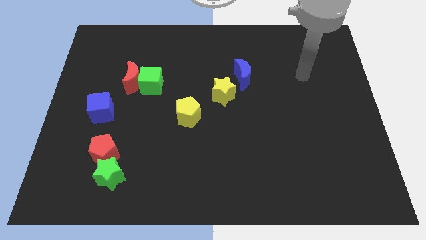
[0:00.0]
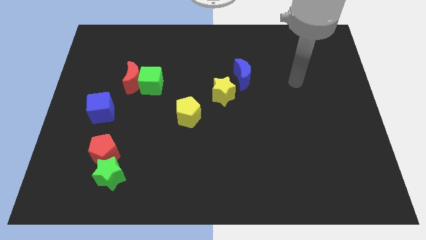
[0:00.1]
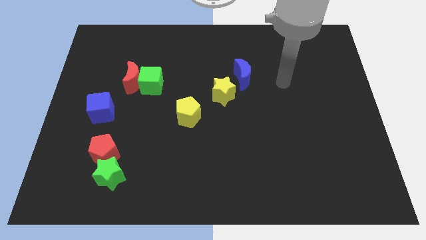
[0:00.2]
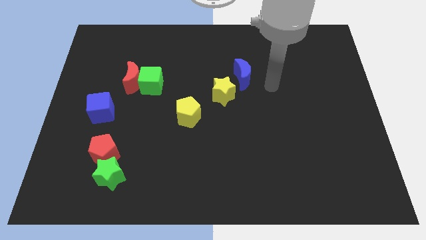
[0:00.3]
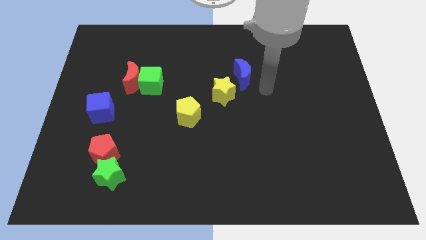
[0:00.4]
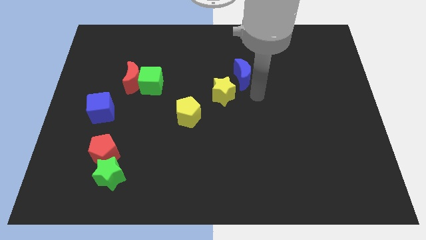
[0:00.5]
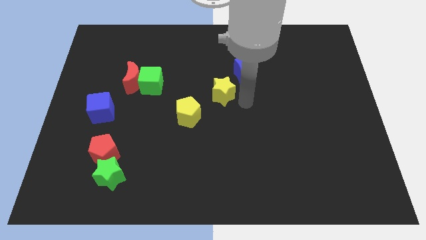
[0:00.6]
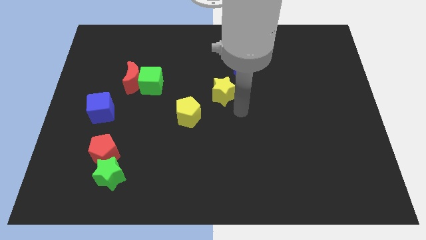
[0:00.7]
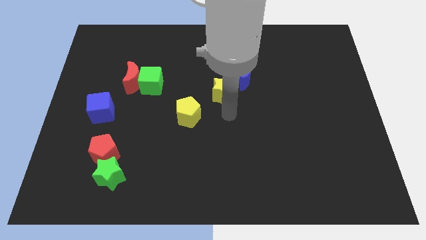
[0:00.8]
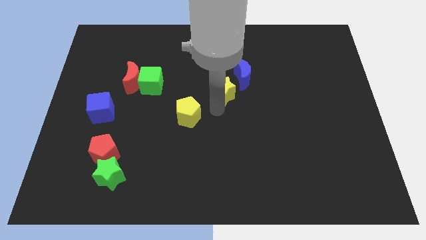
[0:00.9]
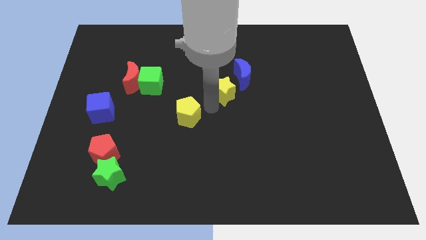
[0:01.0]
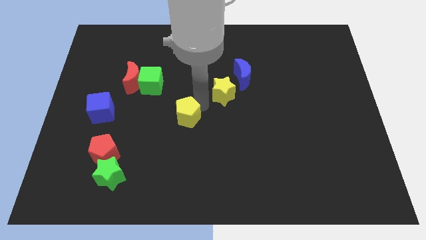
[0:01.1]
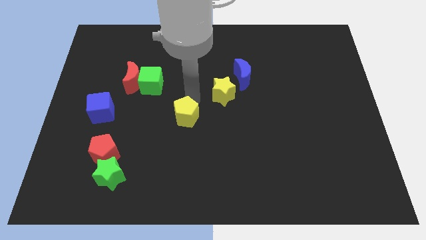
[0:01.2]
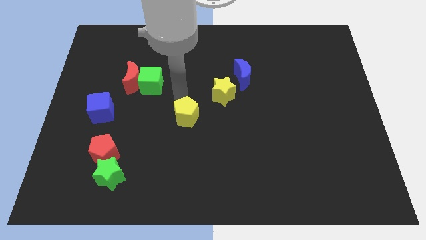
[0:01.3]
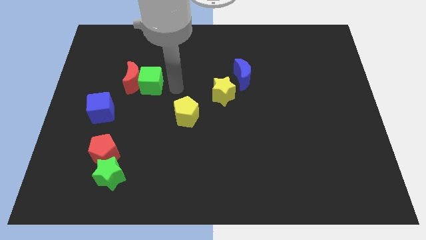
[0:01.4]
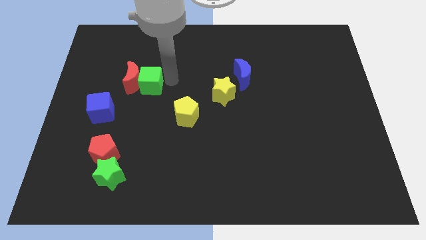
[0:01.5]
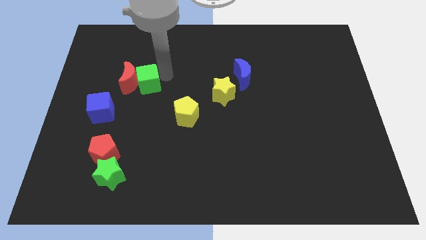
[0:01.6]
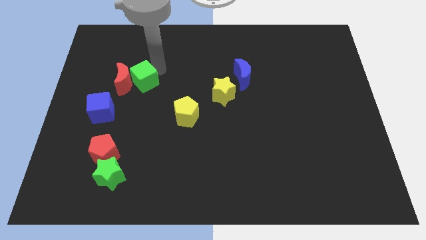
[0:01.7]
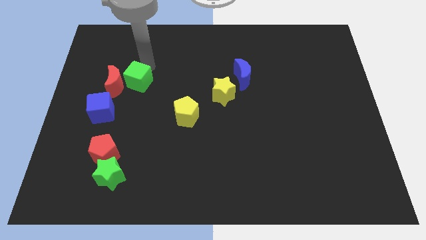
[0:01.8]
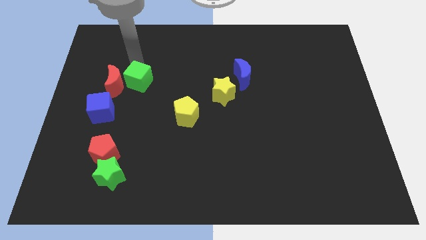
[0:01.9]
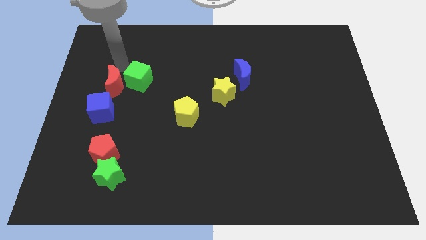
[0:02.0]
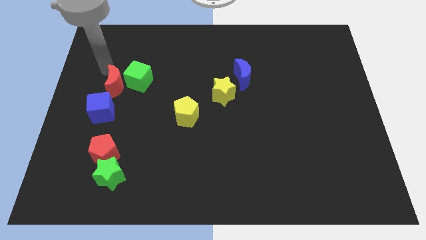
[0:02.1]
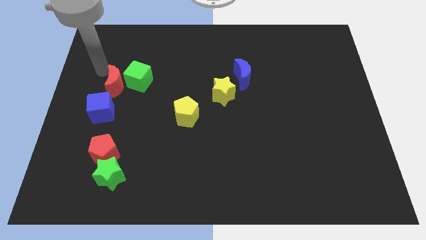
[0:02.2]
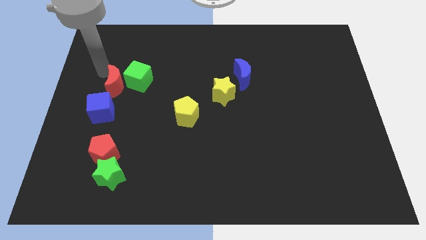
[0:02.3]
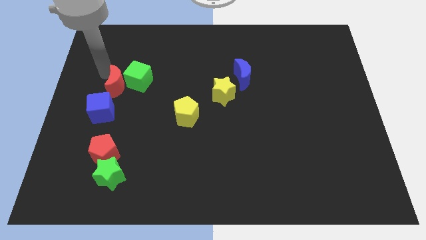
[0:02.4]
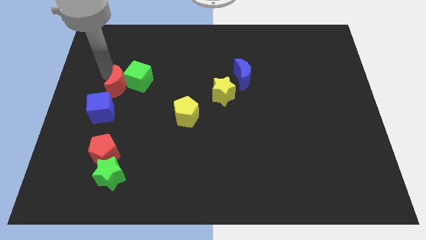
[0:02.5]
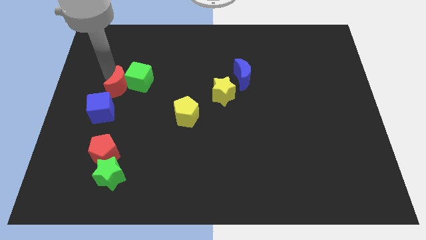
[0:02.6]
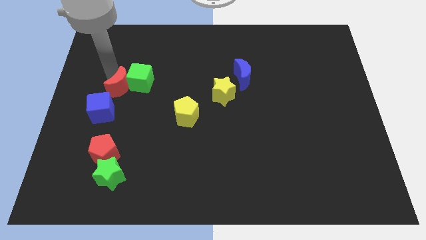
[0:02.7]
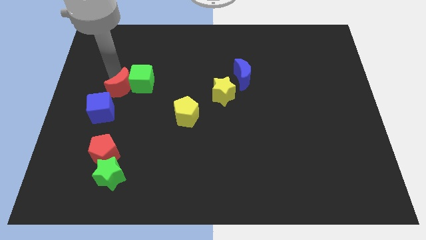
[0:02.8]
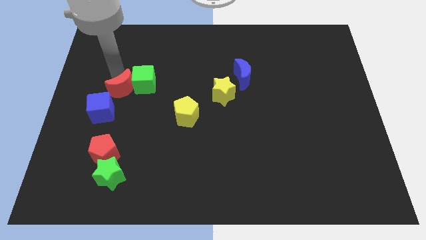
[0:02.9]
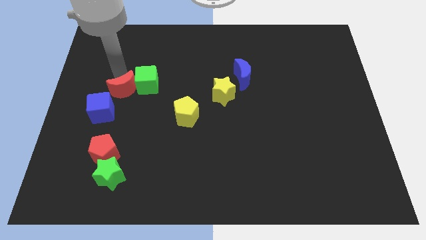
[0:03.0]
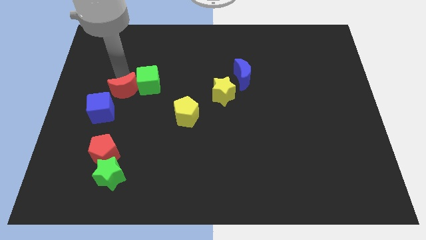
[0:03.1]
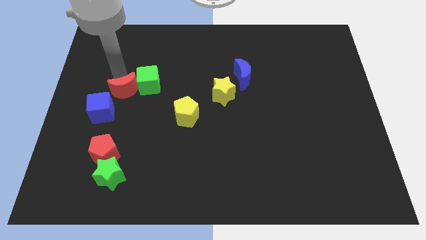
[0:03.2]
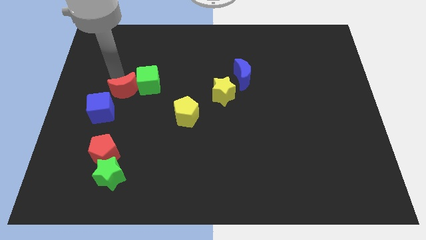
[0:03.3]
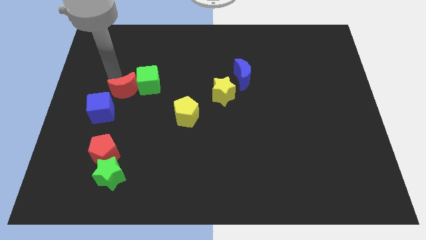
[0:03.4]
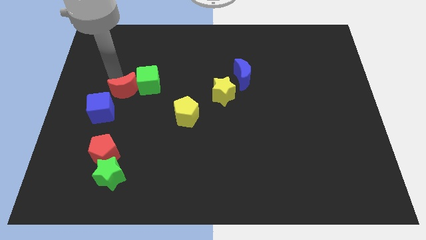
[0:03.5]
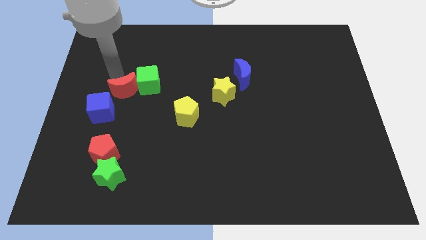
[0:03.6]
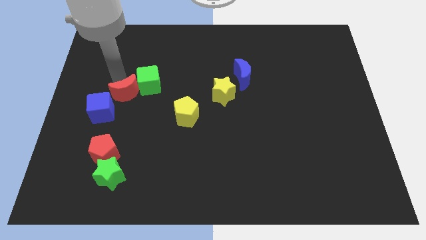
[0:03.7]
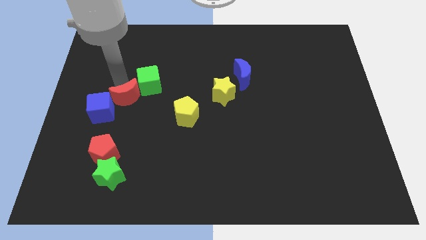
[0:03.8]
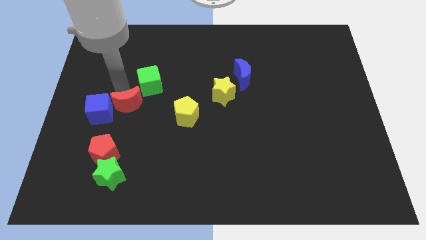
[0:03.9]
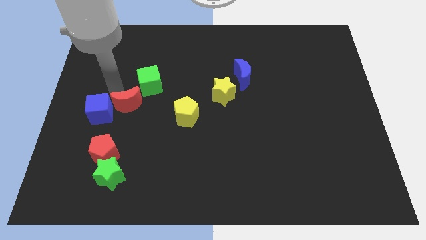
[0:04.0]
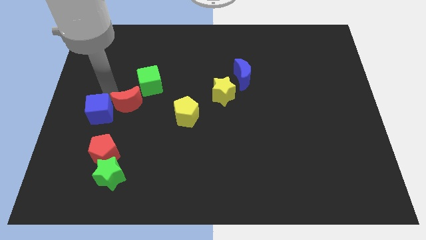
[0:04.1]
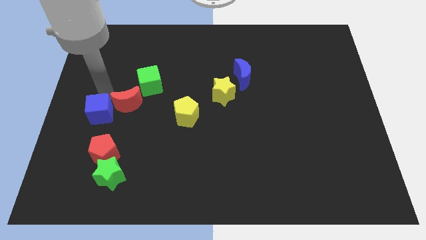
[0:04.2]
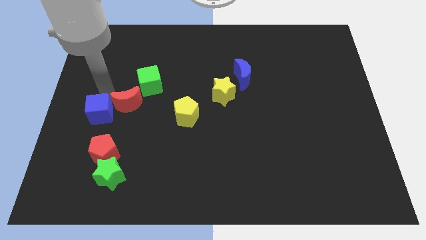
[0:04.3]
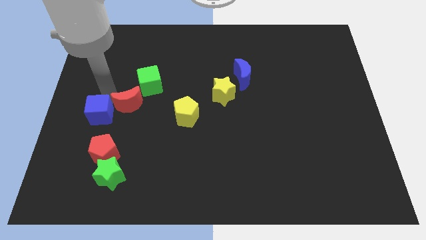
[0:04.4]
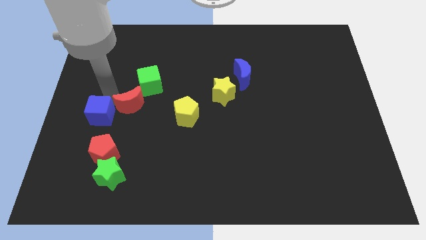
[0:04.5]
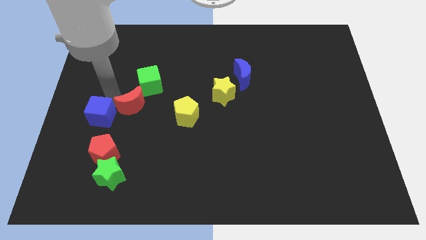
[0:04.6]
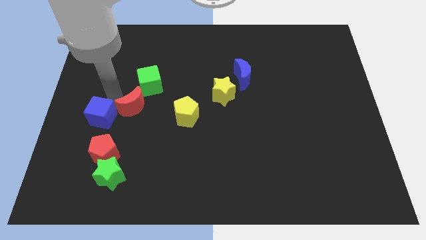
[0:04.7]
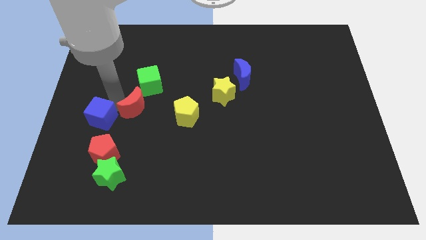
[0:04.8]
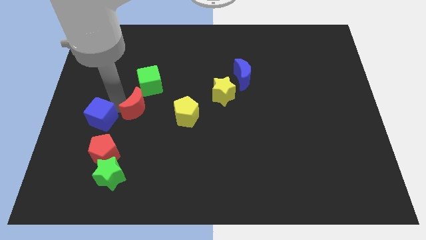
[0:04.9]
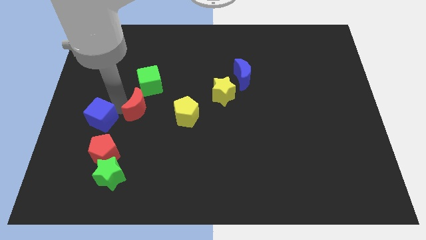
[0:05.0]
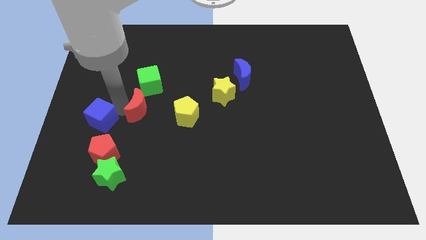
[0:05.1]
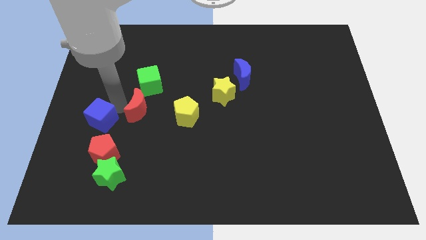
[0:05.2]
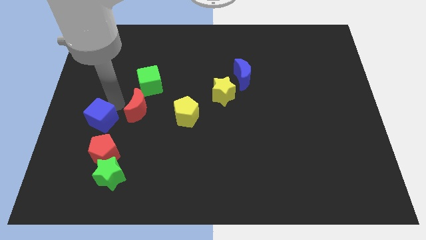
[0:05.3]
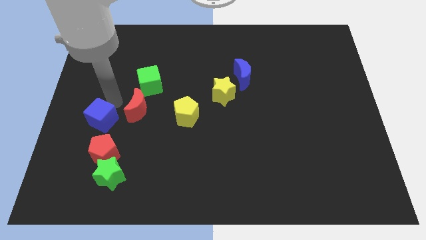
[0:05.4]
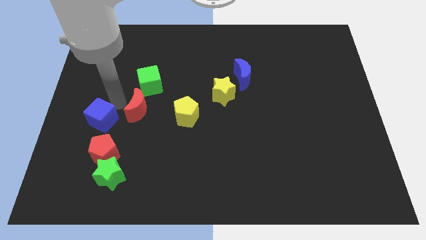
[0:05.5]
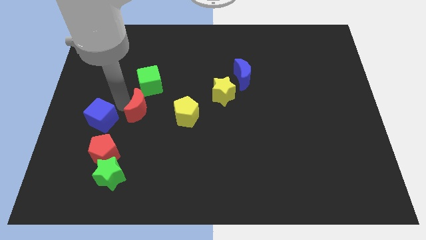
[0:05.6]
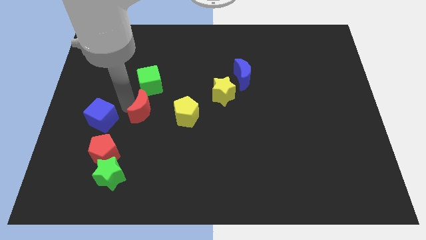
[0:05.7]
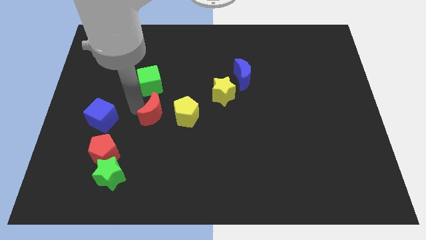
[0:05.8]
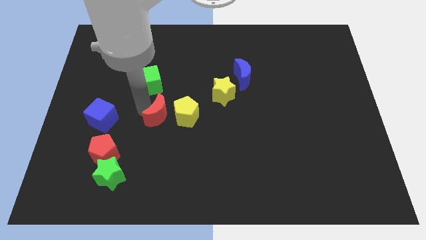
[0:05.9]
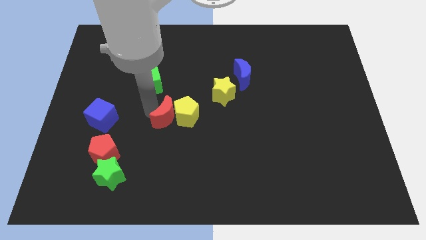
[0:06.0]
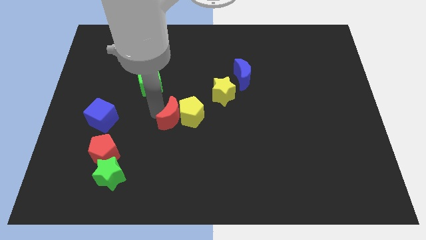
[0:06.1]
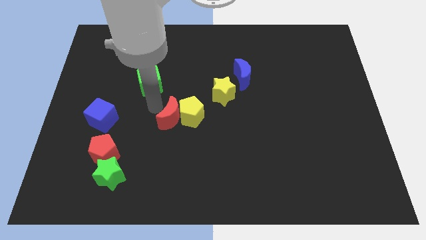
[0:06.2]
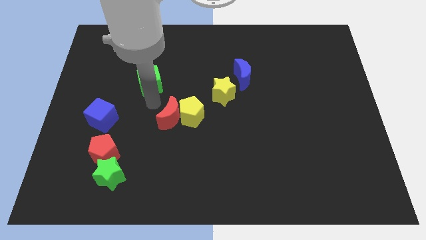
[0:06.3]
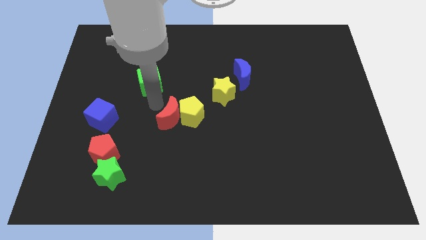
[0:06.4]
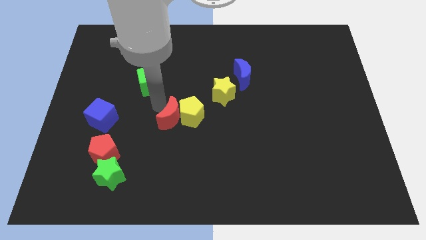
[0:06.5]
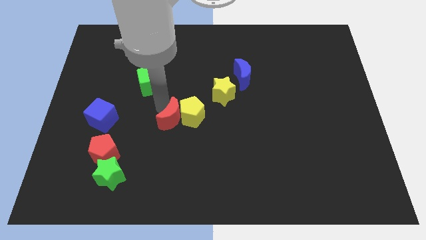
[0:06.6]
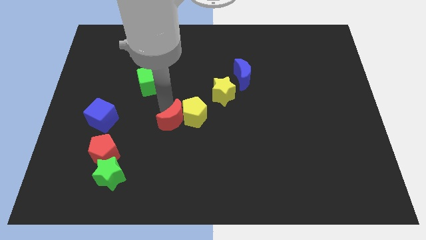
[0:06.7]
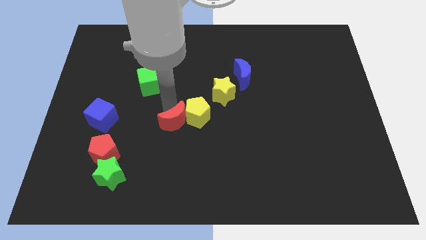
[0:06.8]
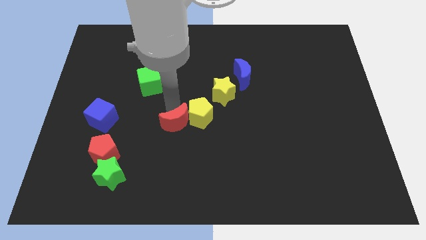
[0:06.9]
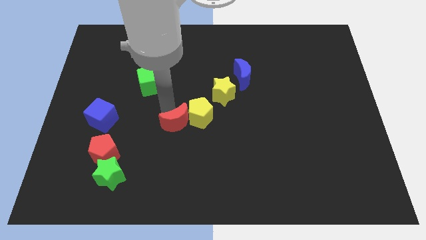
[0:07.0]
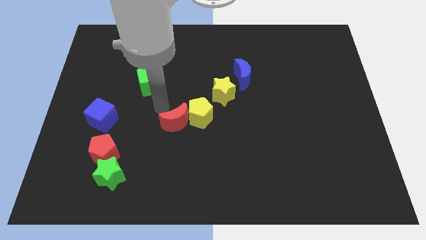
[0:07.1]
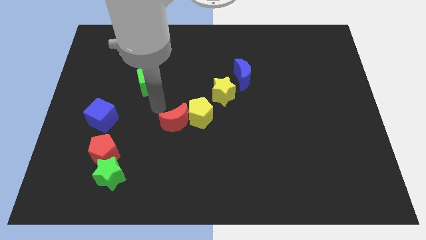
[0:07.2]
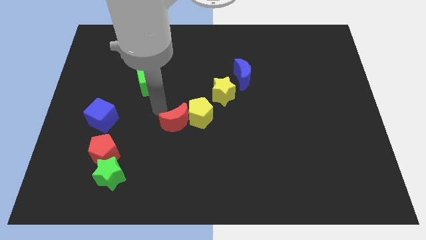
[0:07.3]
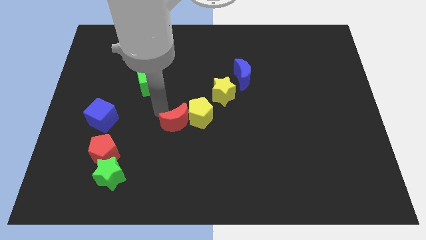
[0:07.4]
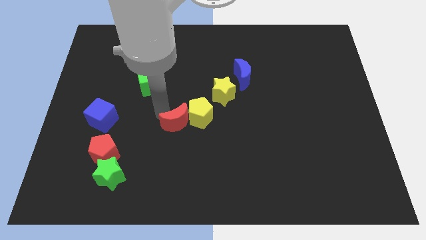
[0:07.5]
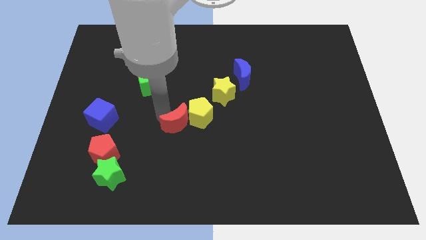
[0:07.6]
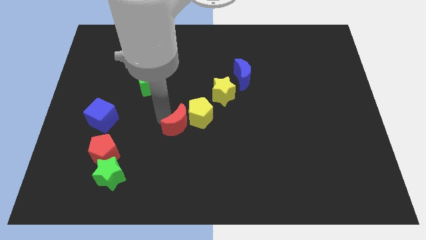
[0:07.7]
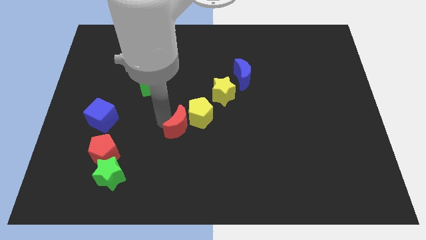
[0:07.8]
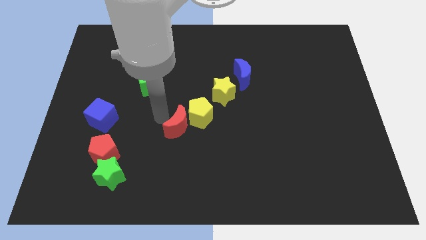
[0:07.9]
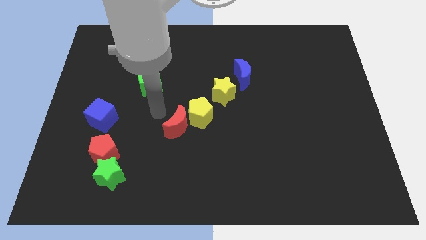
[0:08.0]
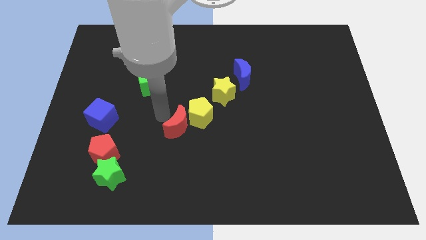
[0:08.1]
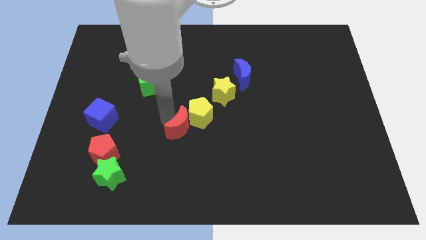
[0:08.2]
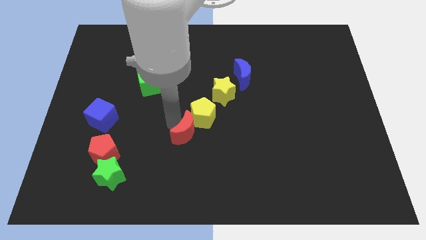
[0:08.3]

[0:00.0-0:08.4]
move the red moon downwards and to the right diagonally

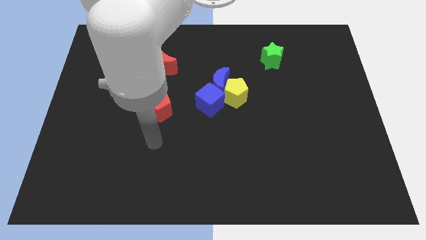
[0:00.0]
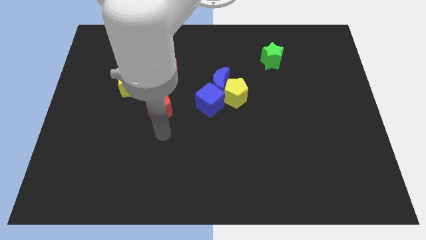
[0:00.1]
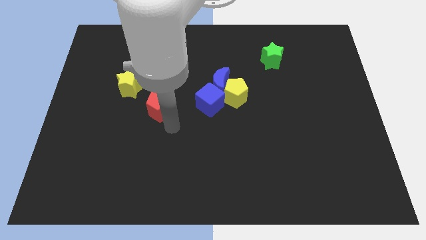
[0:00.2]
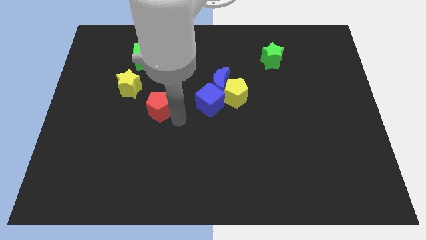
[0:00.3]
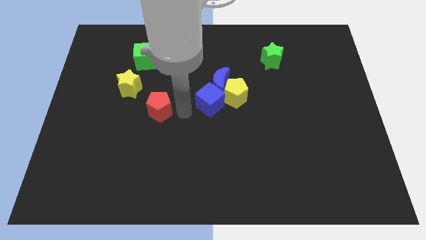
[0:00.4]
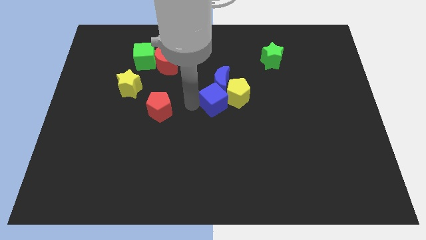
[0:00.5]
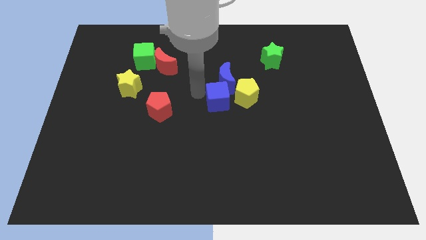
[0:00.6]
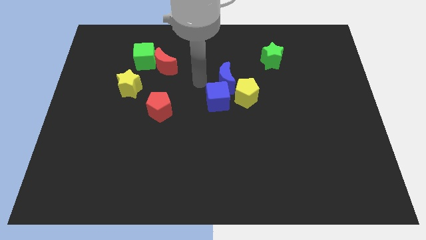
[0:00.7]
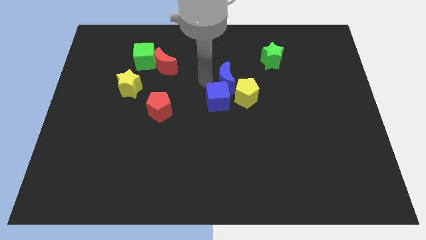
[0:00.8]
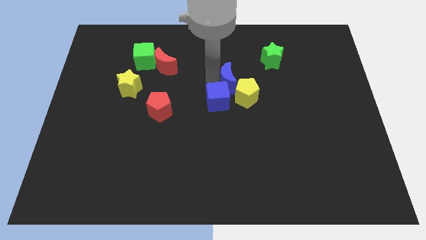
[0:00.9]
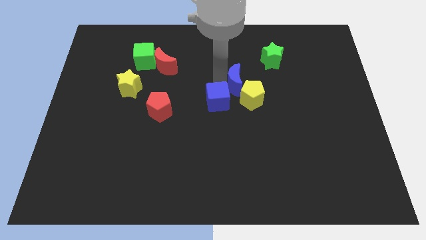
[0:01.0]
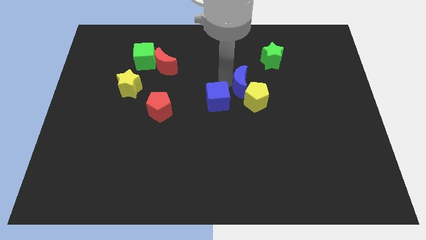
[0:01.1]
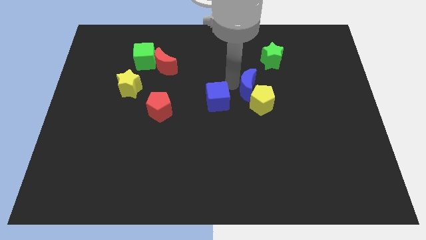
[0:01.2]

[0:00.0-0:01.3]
slightly move the blue moon to the right
